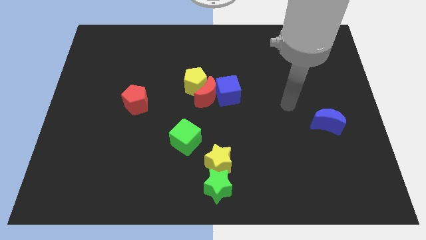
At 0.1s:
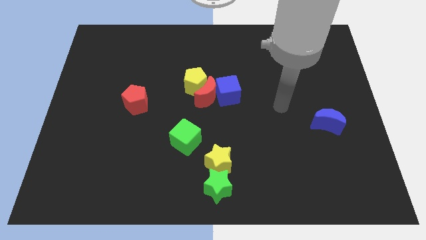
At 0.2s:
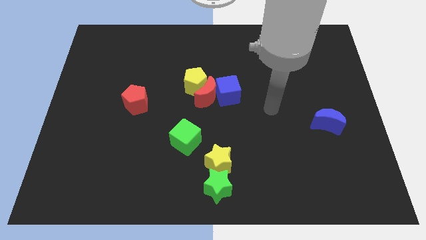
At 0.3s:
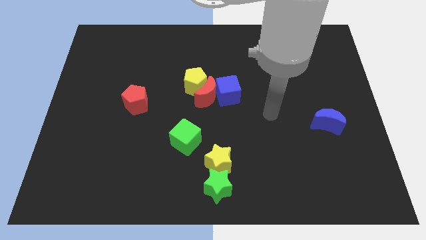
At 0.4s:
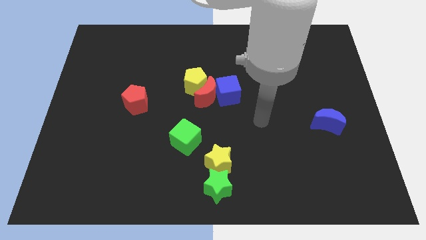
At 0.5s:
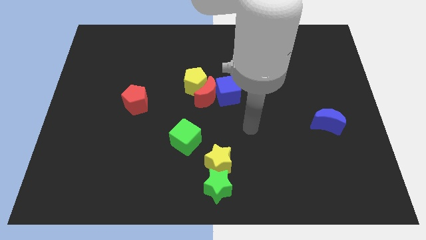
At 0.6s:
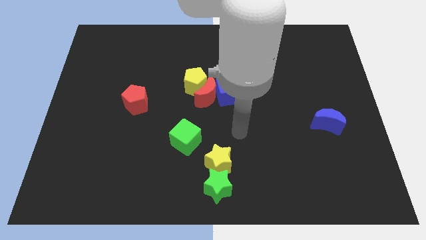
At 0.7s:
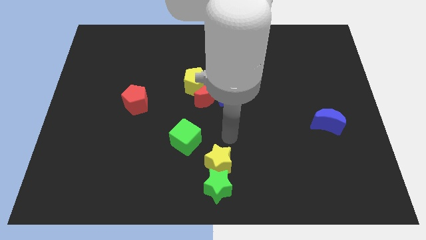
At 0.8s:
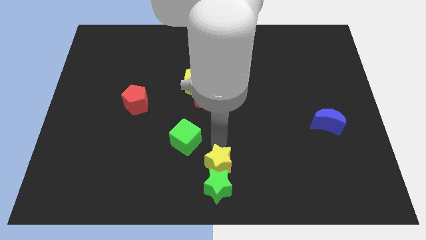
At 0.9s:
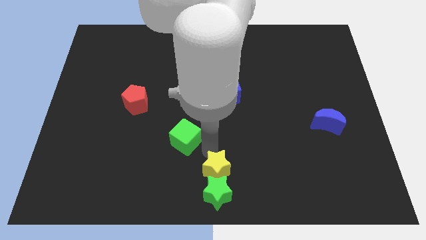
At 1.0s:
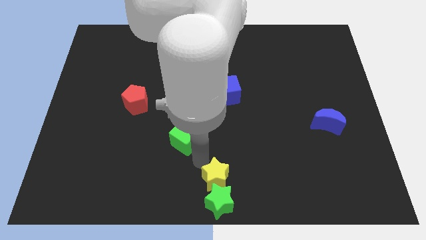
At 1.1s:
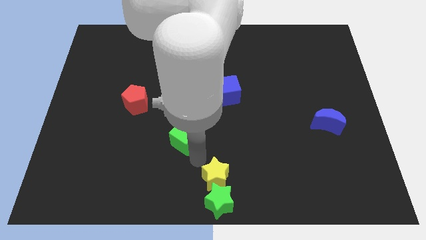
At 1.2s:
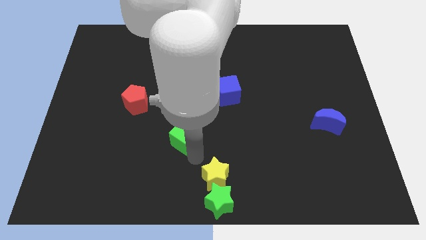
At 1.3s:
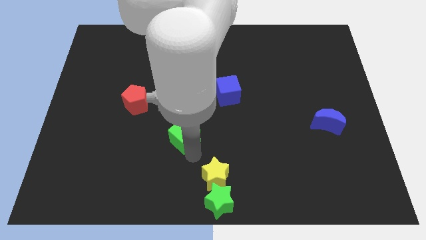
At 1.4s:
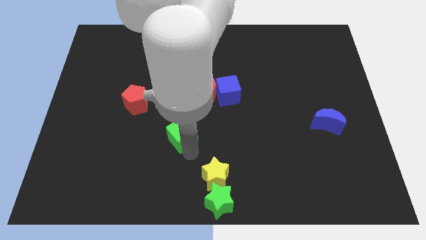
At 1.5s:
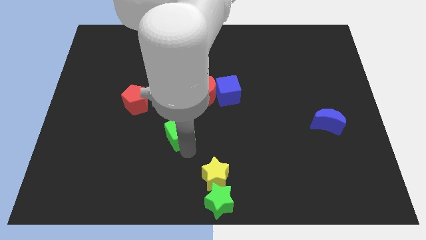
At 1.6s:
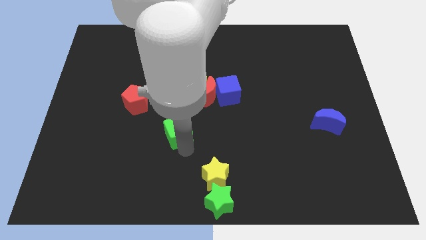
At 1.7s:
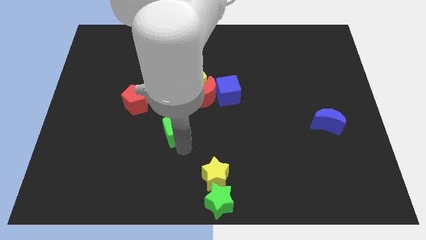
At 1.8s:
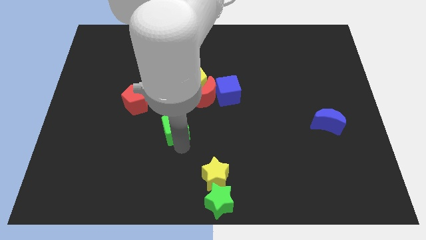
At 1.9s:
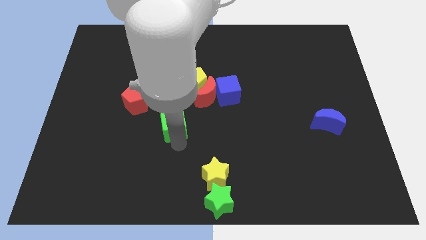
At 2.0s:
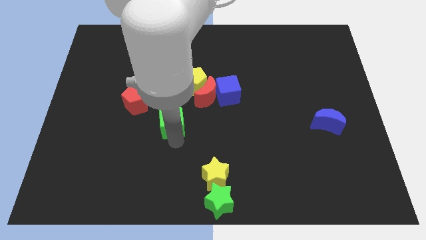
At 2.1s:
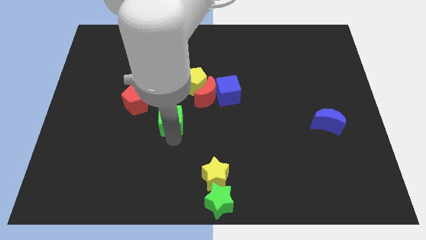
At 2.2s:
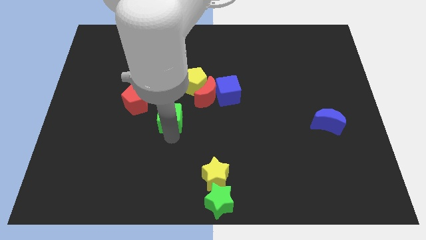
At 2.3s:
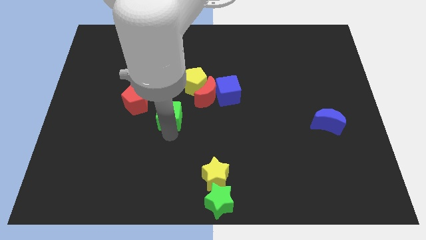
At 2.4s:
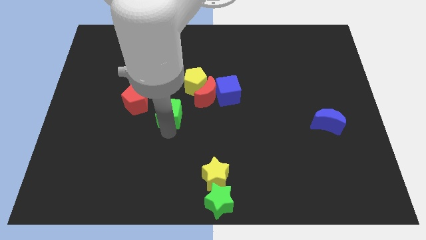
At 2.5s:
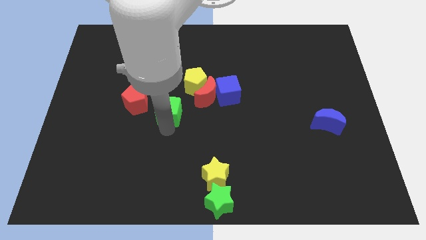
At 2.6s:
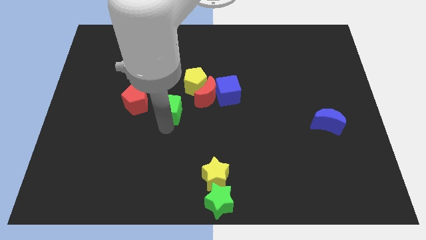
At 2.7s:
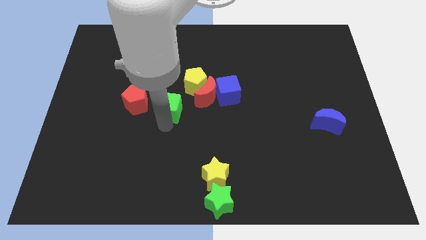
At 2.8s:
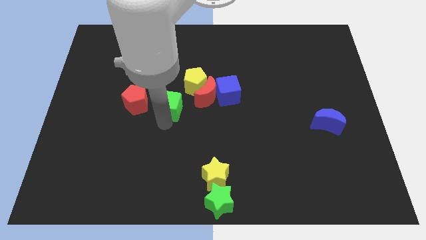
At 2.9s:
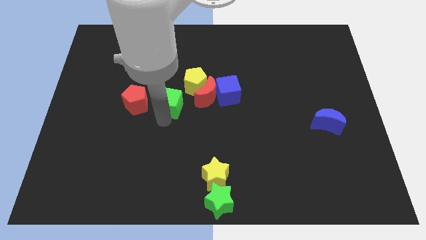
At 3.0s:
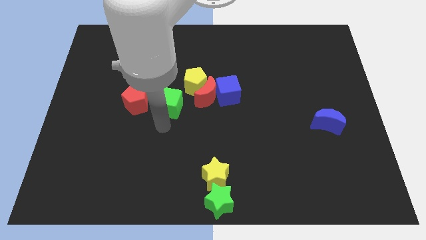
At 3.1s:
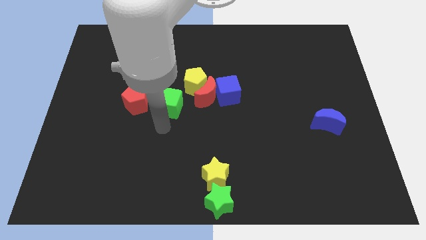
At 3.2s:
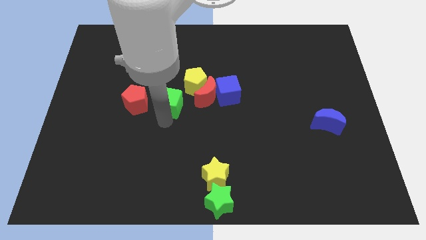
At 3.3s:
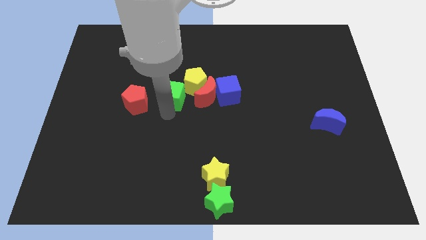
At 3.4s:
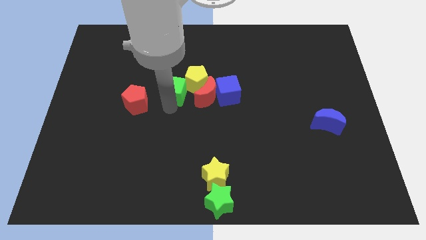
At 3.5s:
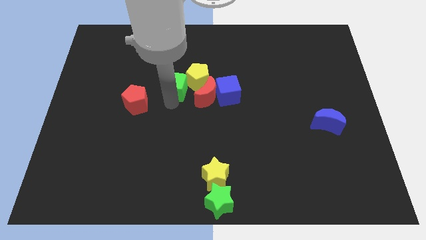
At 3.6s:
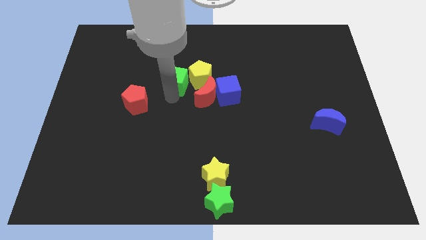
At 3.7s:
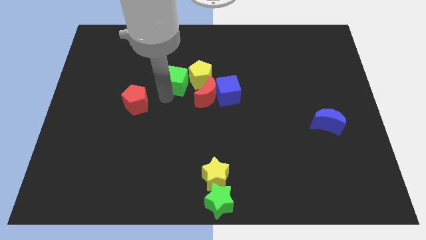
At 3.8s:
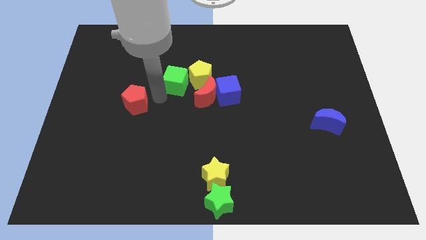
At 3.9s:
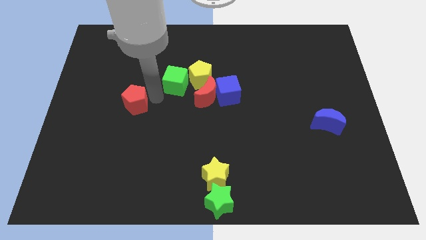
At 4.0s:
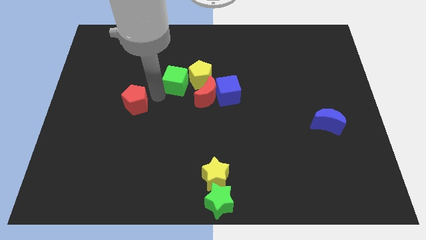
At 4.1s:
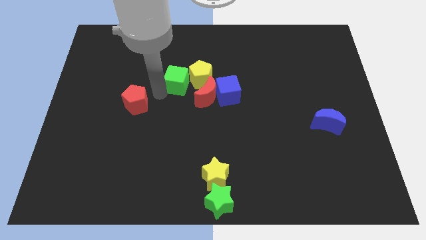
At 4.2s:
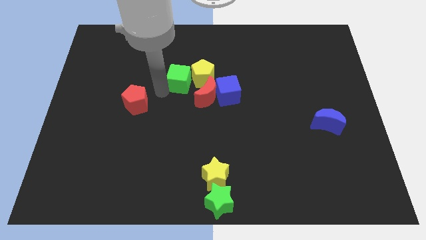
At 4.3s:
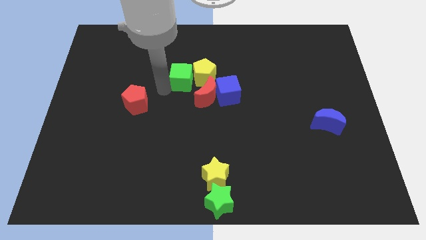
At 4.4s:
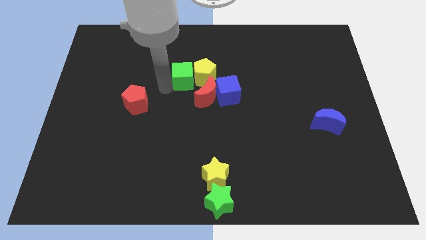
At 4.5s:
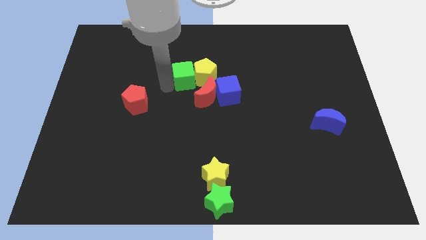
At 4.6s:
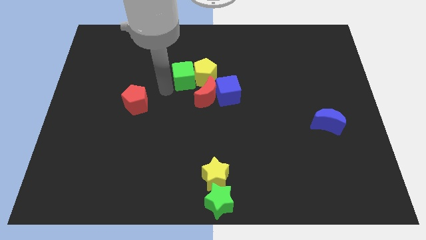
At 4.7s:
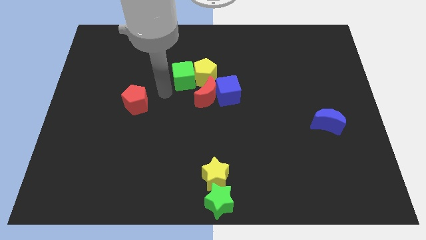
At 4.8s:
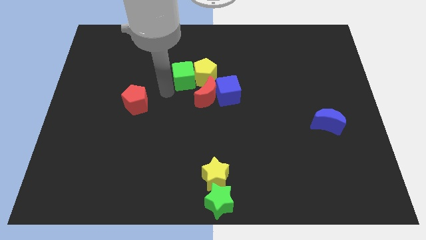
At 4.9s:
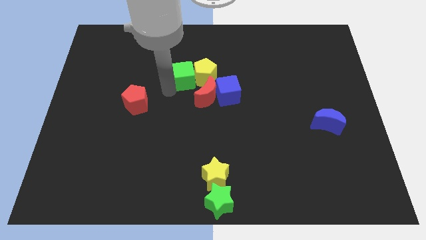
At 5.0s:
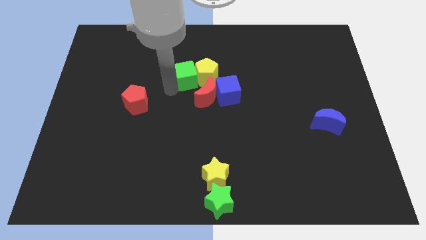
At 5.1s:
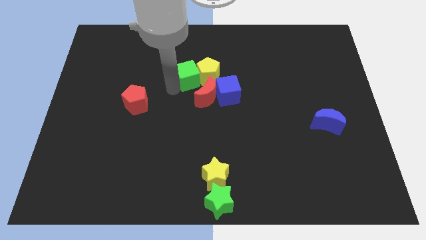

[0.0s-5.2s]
push the green cube to the top side of the red moon

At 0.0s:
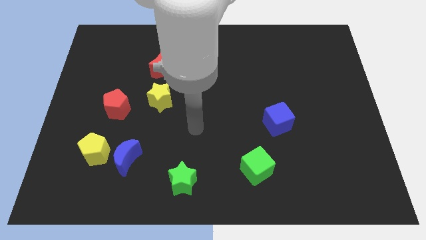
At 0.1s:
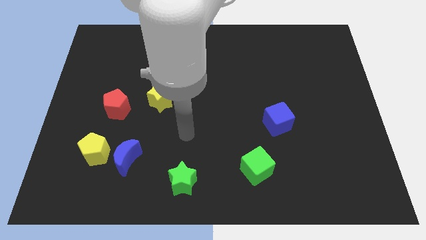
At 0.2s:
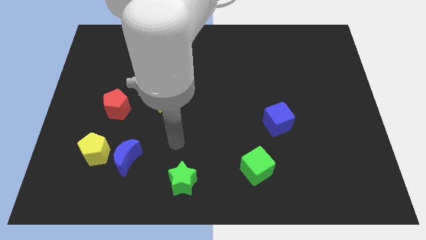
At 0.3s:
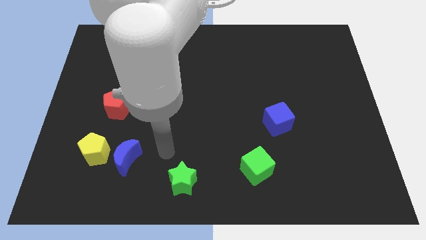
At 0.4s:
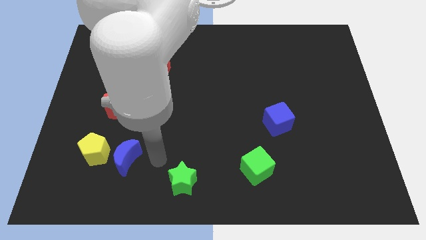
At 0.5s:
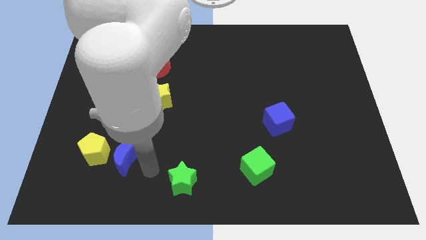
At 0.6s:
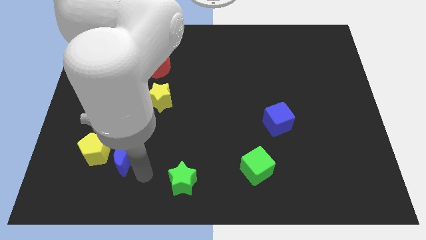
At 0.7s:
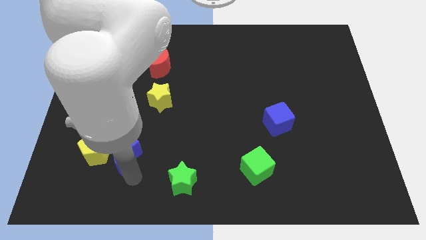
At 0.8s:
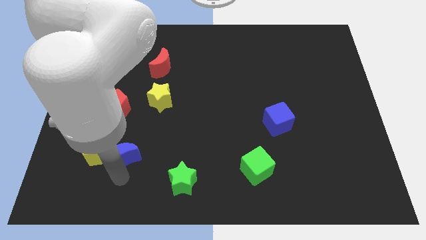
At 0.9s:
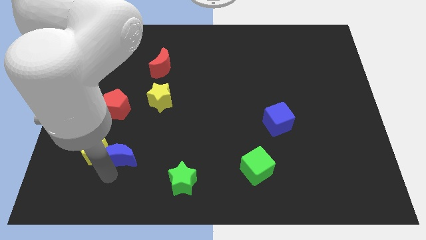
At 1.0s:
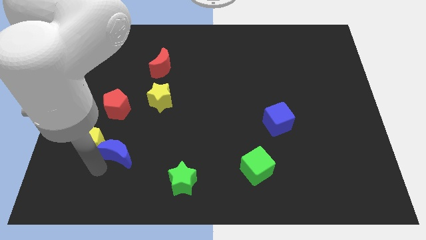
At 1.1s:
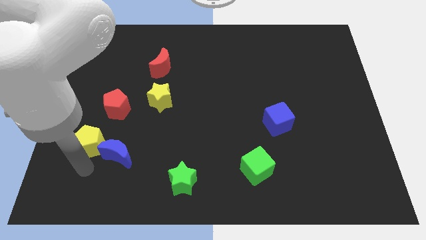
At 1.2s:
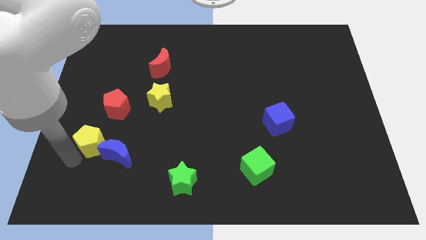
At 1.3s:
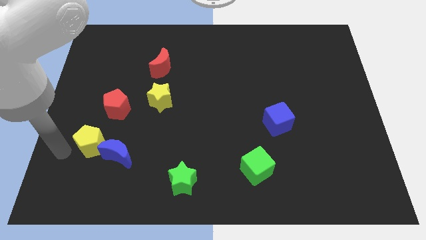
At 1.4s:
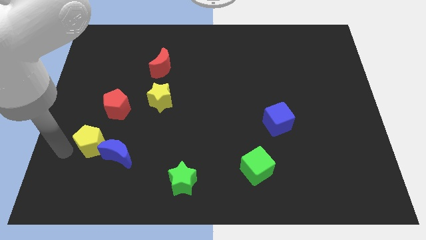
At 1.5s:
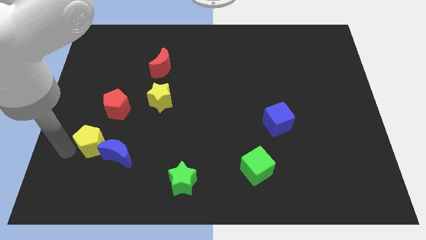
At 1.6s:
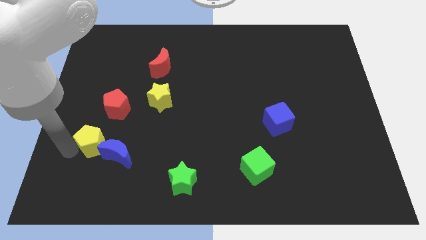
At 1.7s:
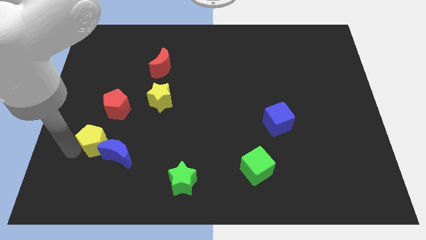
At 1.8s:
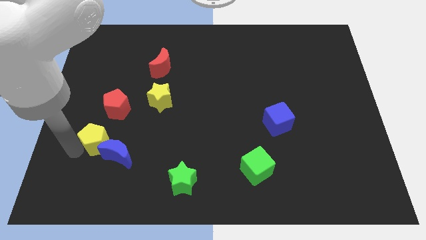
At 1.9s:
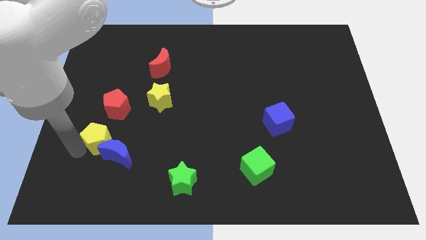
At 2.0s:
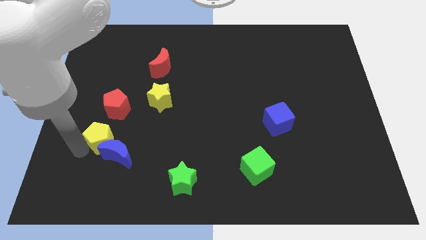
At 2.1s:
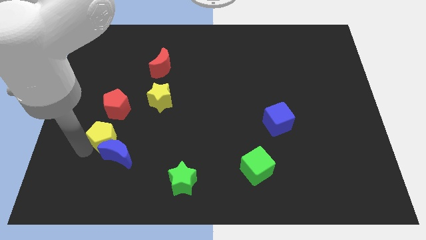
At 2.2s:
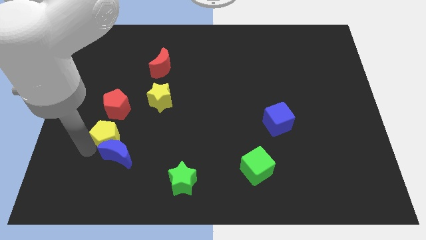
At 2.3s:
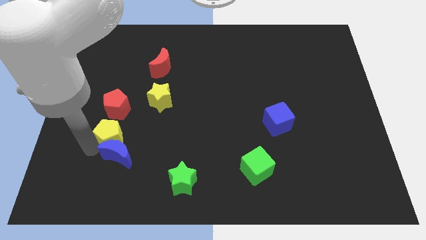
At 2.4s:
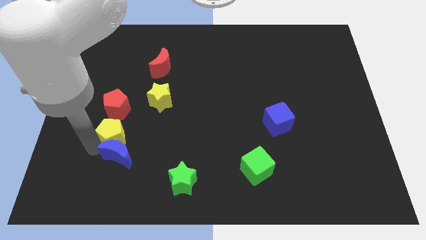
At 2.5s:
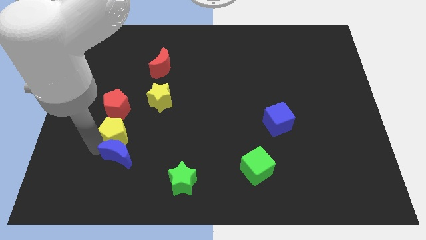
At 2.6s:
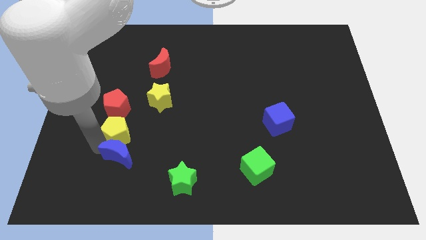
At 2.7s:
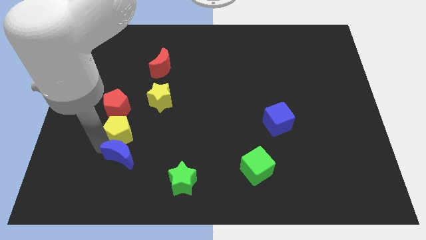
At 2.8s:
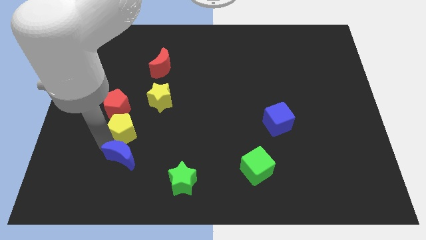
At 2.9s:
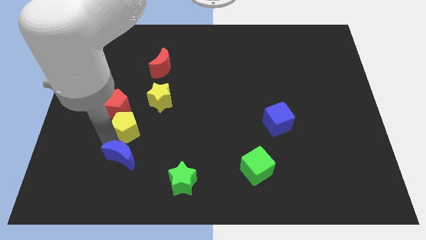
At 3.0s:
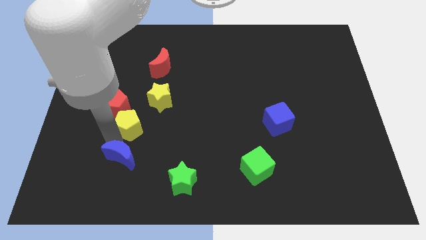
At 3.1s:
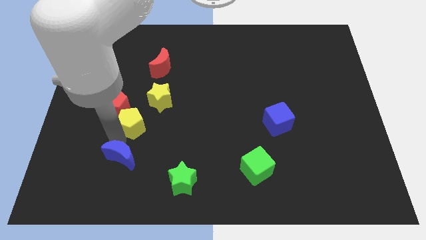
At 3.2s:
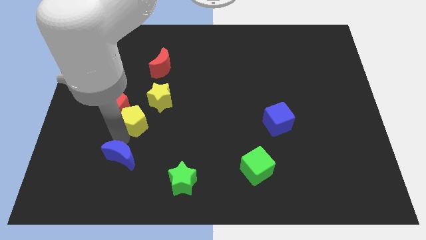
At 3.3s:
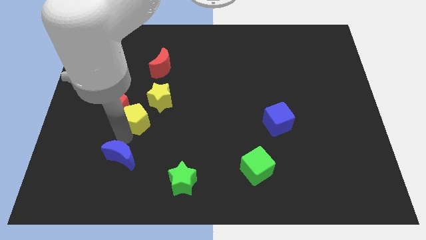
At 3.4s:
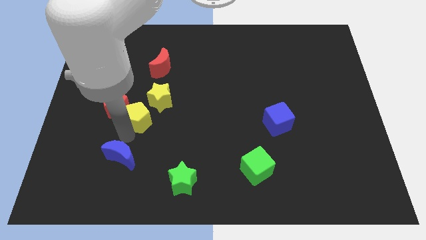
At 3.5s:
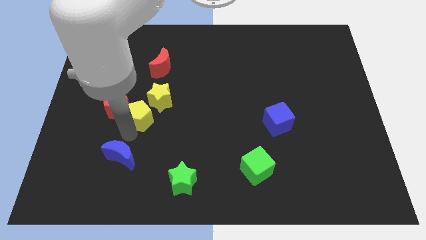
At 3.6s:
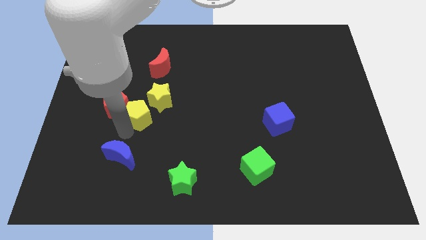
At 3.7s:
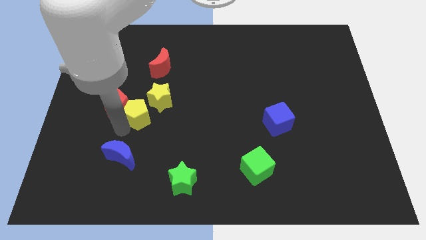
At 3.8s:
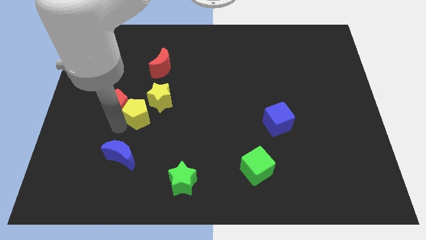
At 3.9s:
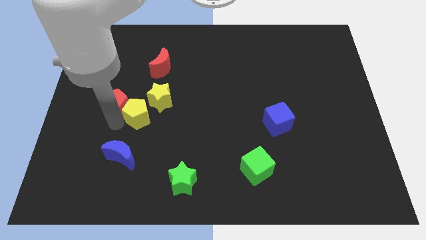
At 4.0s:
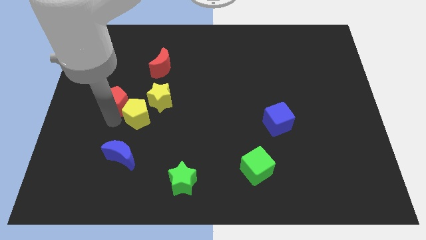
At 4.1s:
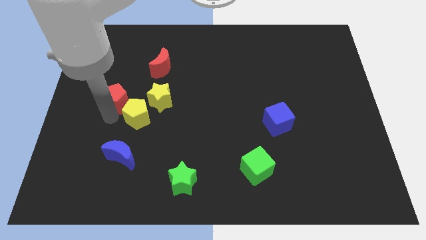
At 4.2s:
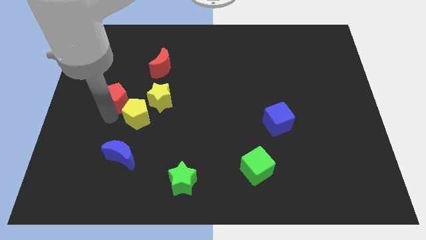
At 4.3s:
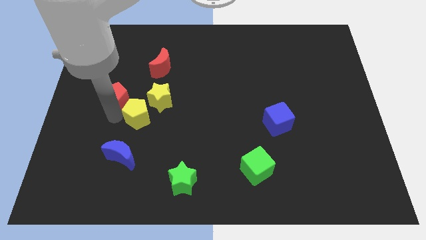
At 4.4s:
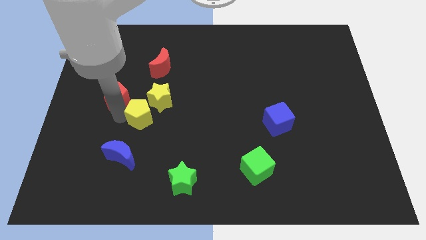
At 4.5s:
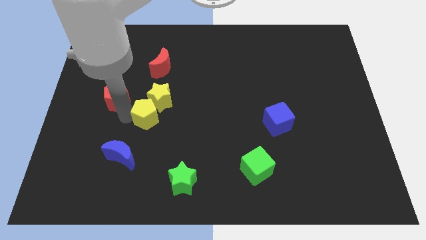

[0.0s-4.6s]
push the yellow pentagon to the bottom of the red moon
